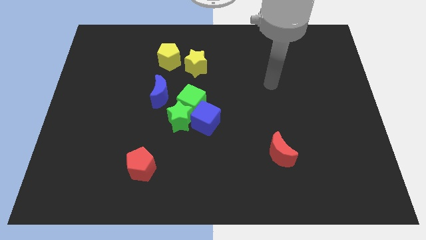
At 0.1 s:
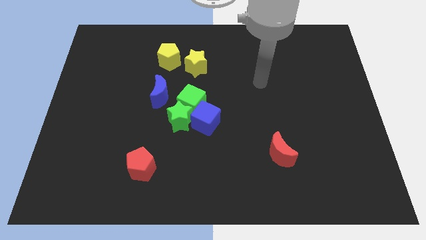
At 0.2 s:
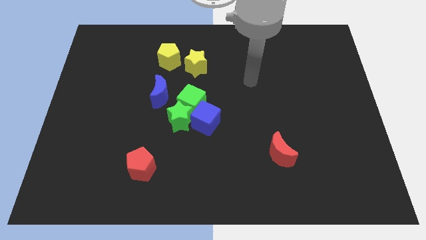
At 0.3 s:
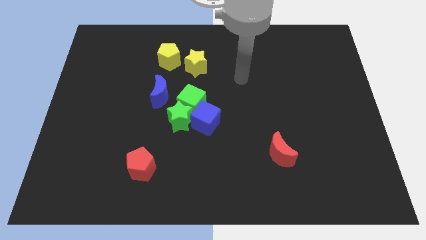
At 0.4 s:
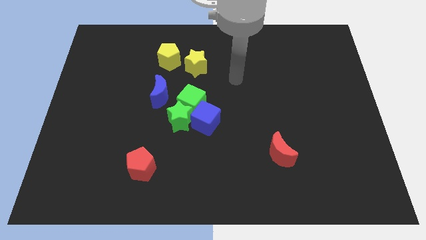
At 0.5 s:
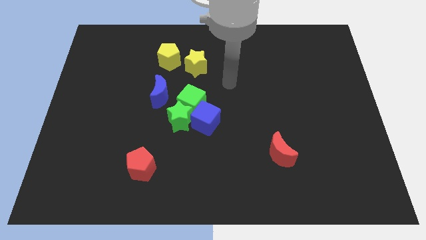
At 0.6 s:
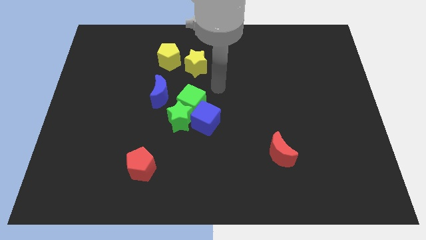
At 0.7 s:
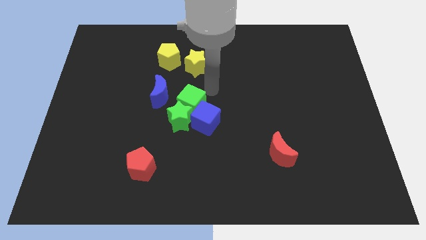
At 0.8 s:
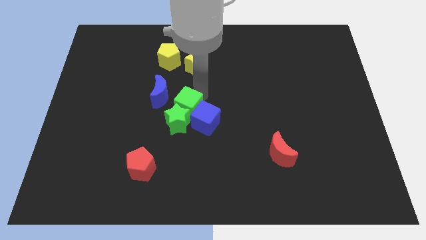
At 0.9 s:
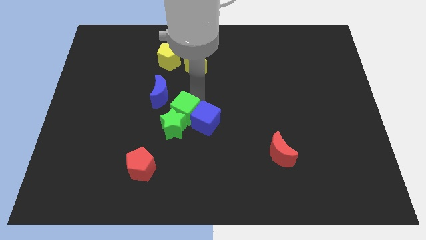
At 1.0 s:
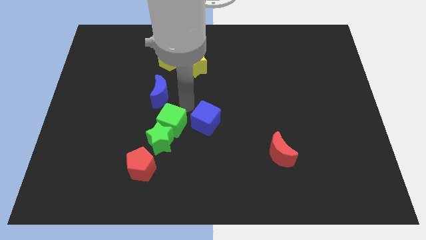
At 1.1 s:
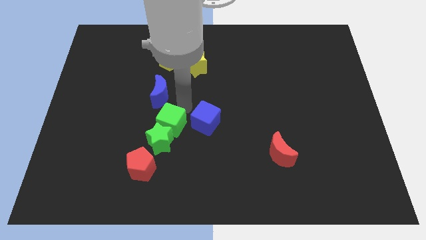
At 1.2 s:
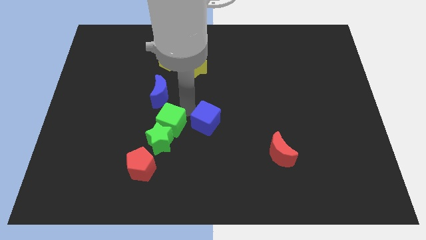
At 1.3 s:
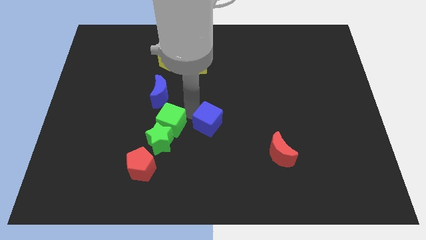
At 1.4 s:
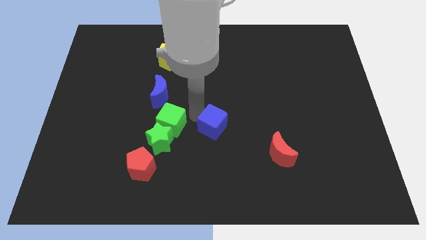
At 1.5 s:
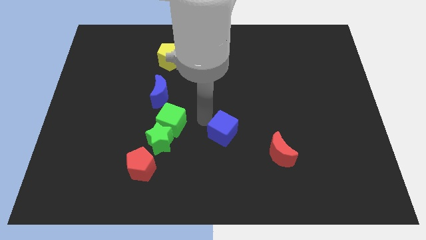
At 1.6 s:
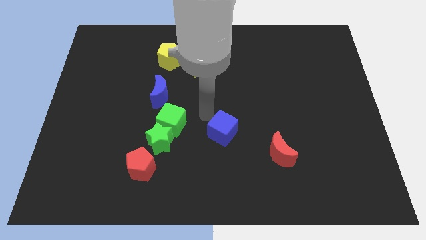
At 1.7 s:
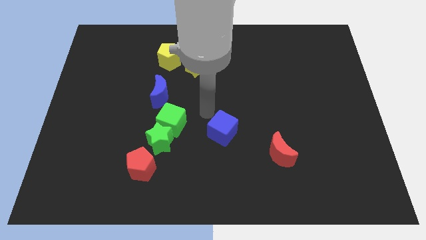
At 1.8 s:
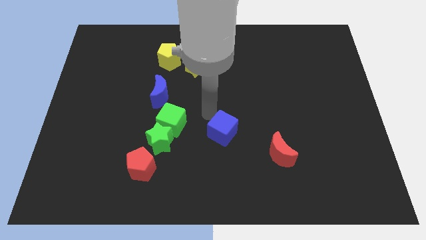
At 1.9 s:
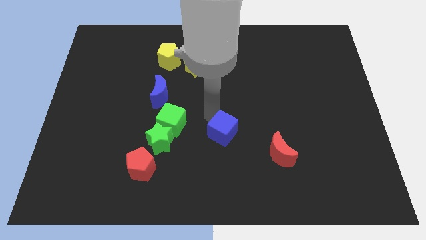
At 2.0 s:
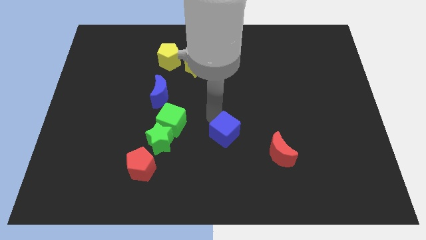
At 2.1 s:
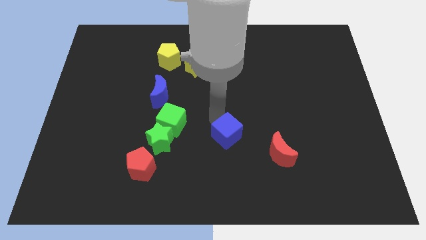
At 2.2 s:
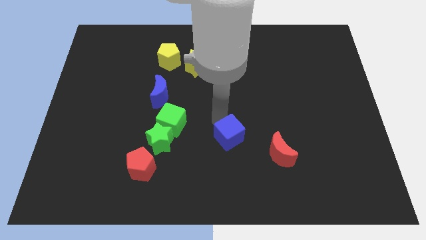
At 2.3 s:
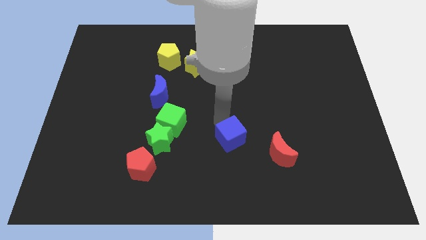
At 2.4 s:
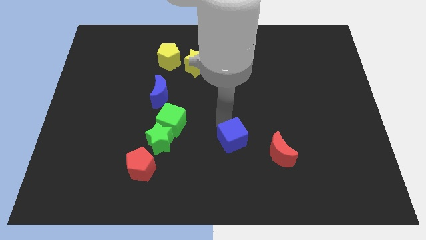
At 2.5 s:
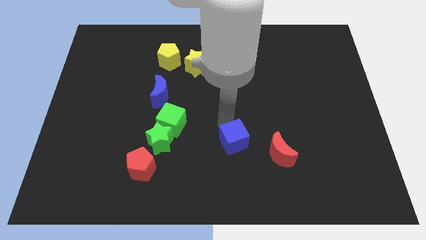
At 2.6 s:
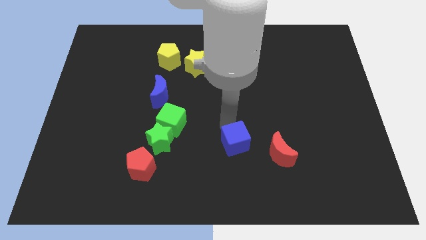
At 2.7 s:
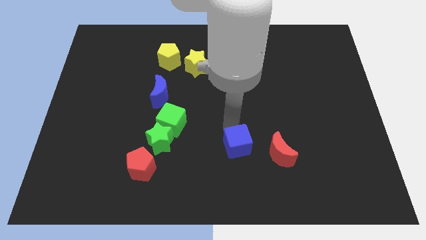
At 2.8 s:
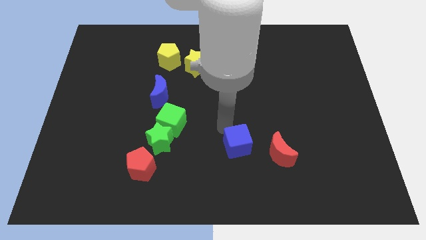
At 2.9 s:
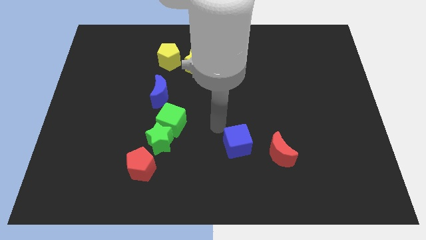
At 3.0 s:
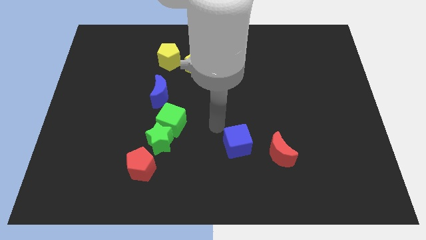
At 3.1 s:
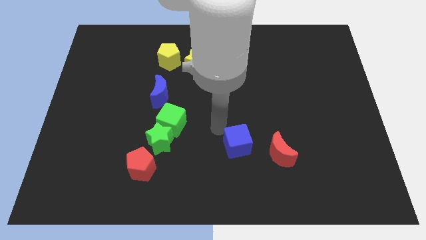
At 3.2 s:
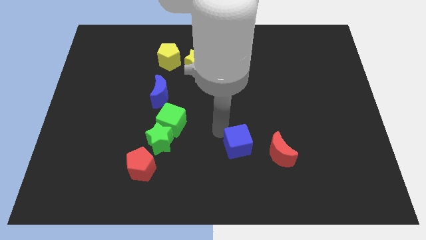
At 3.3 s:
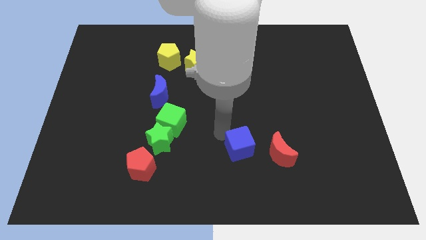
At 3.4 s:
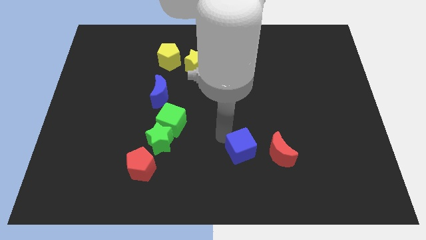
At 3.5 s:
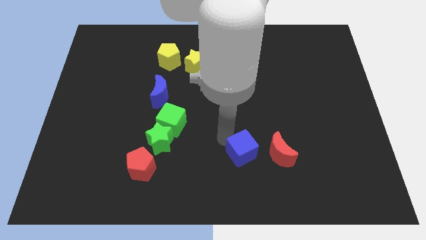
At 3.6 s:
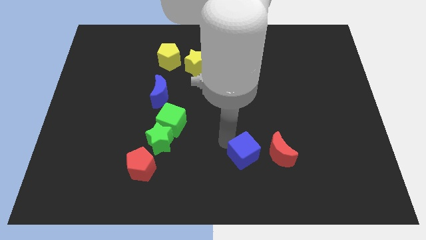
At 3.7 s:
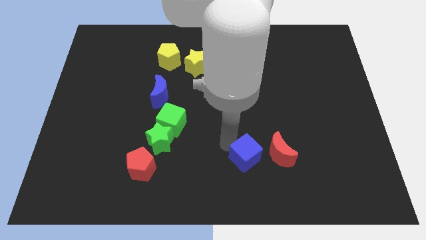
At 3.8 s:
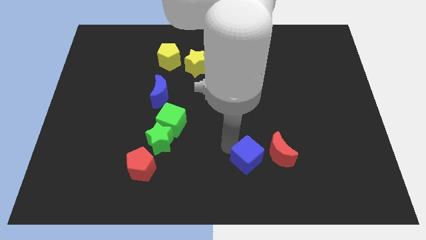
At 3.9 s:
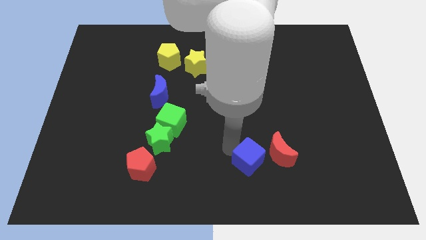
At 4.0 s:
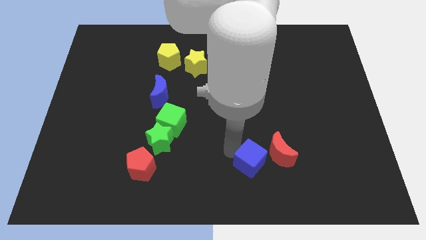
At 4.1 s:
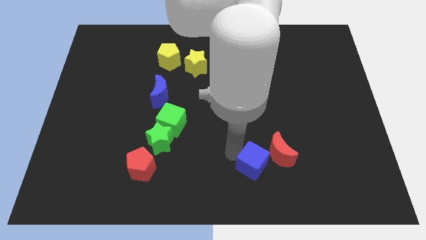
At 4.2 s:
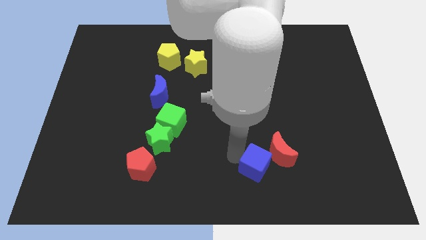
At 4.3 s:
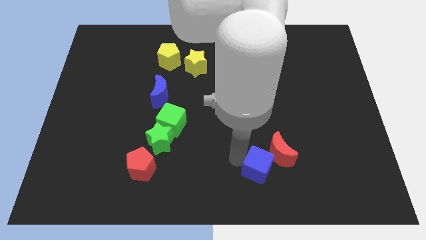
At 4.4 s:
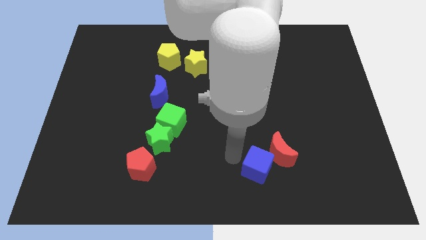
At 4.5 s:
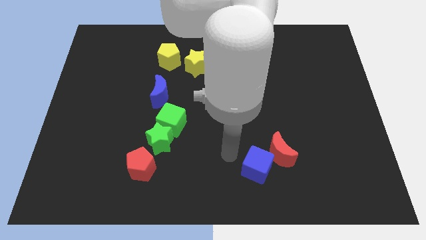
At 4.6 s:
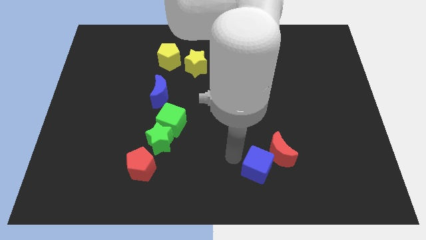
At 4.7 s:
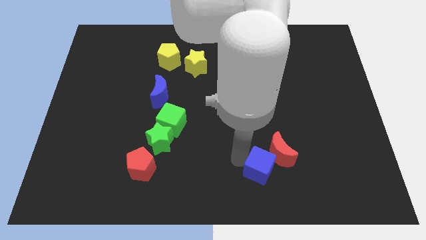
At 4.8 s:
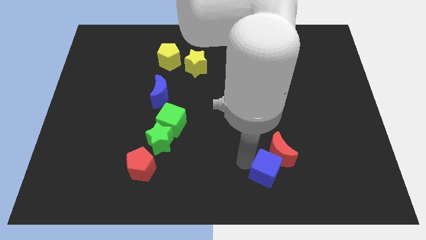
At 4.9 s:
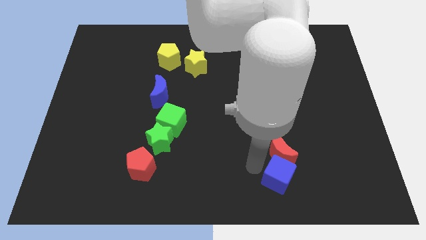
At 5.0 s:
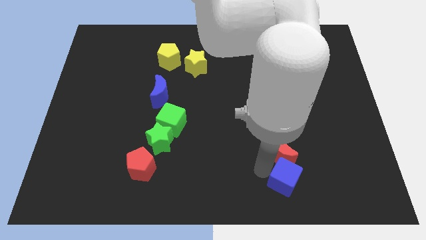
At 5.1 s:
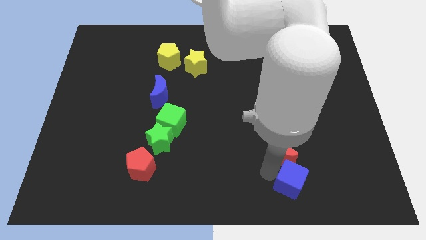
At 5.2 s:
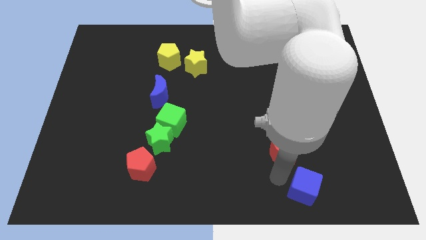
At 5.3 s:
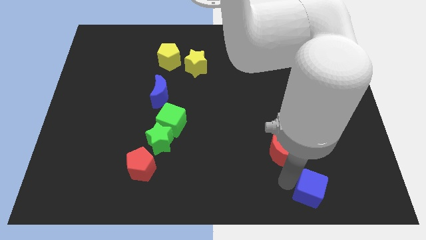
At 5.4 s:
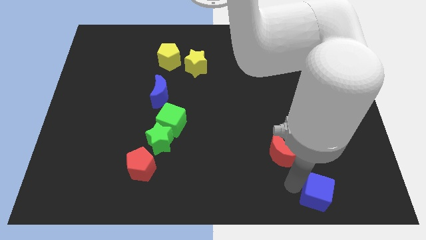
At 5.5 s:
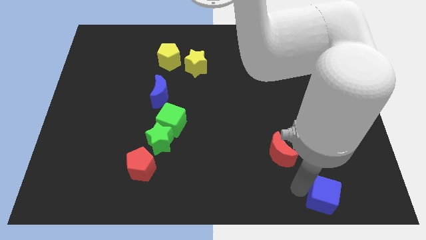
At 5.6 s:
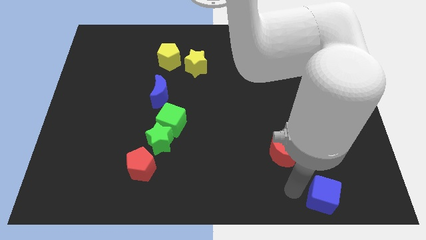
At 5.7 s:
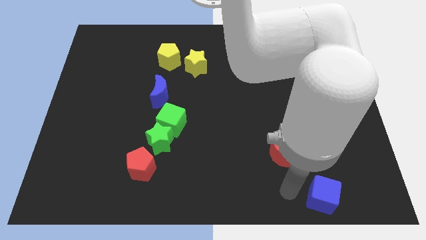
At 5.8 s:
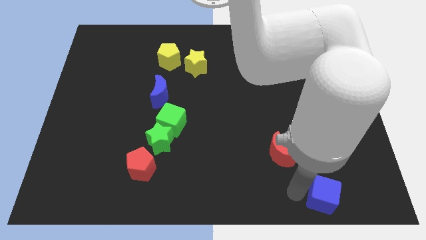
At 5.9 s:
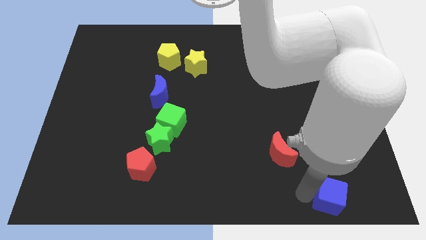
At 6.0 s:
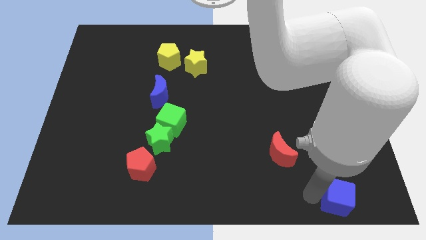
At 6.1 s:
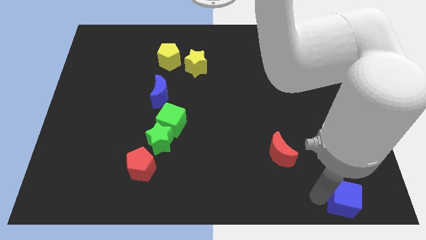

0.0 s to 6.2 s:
push the blue cube to the bottom right corner
